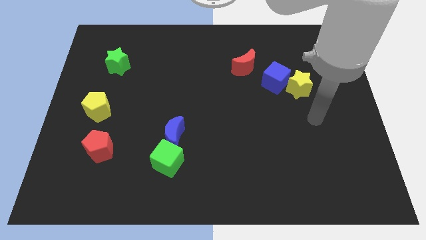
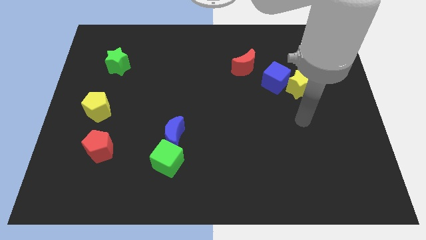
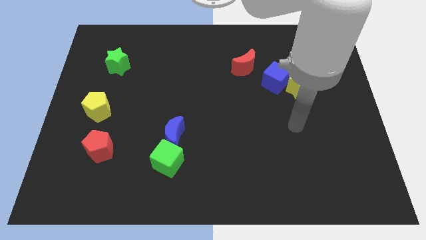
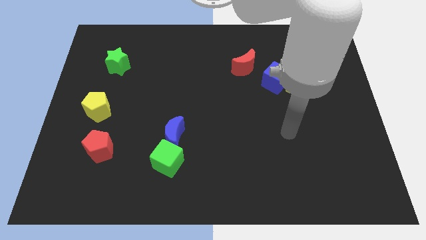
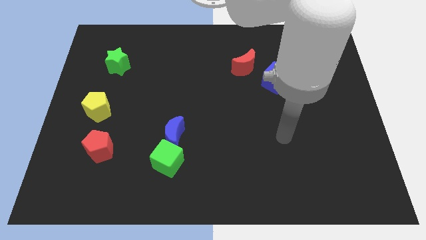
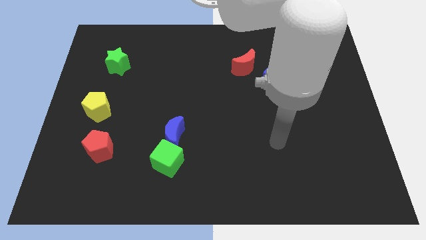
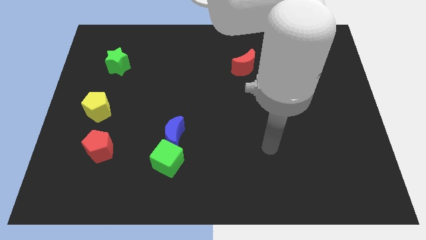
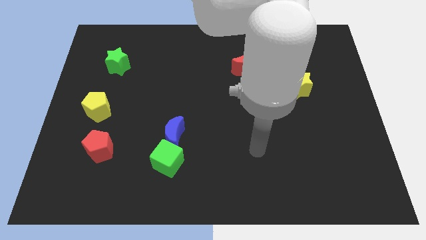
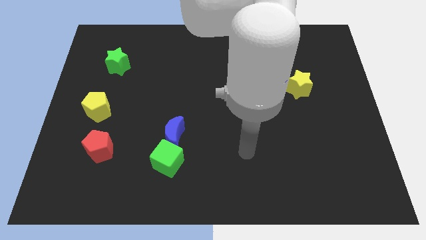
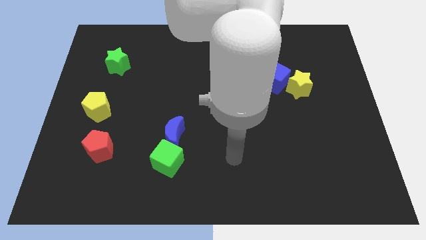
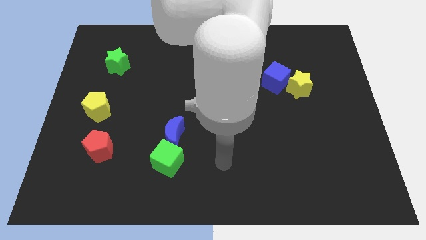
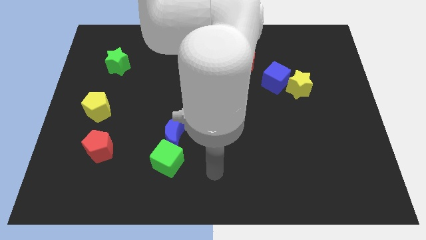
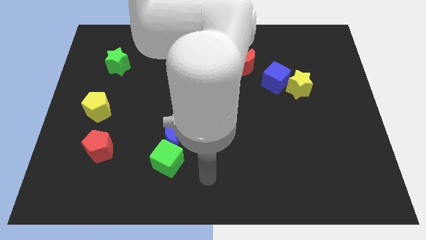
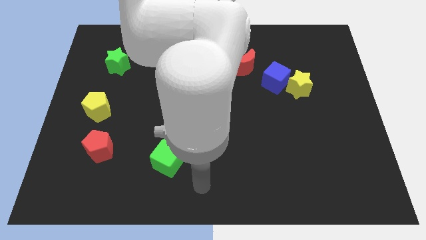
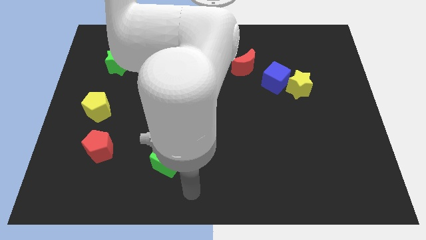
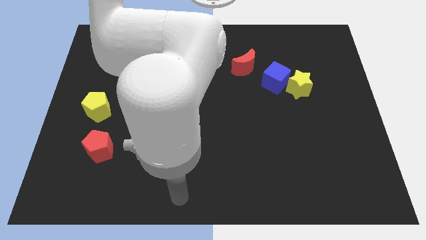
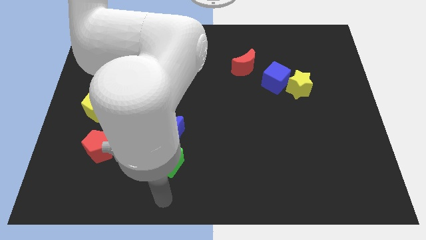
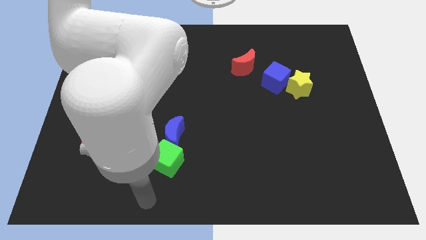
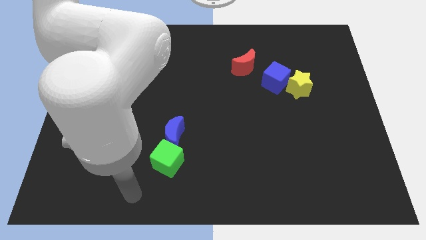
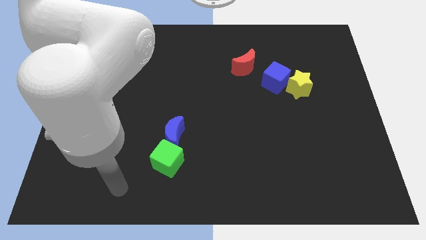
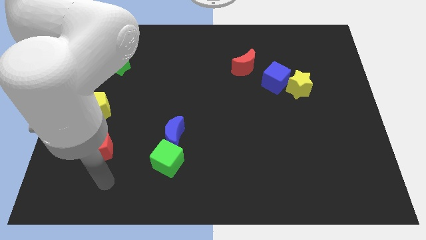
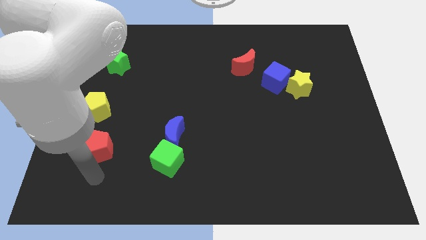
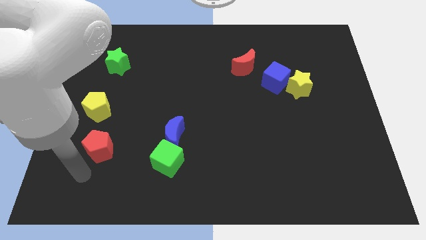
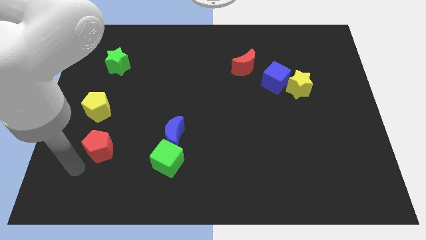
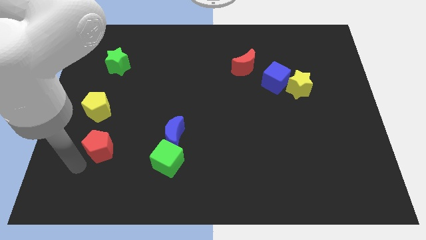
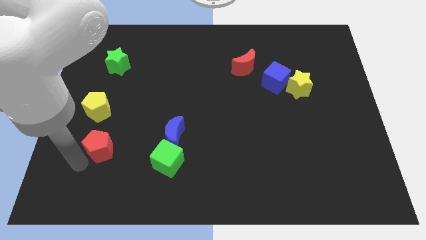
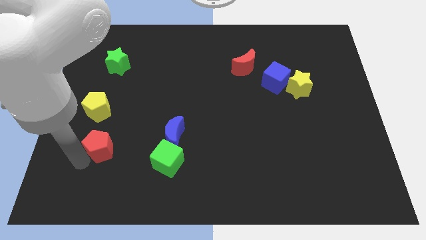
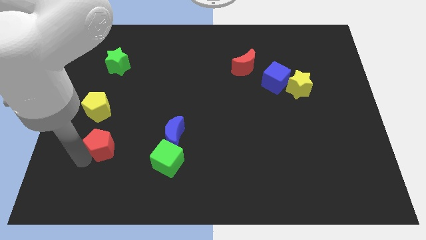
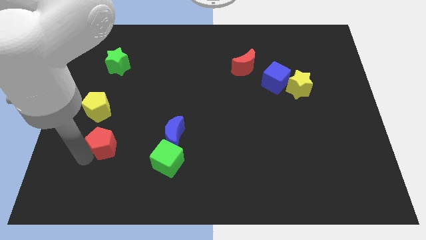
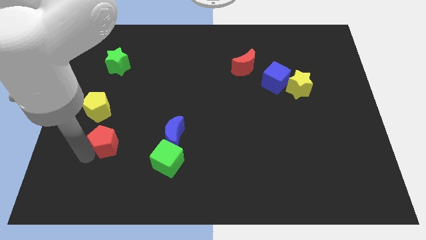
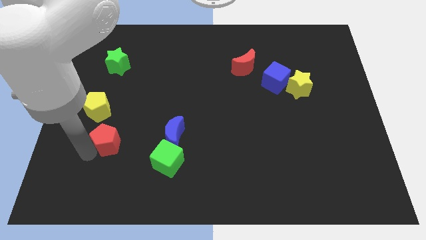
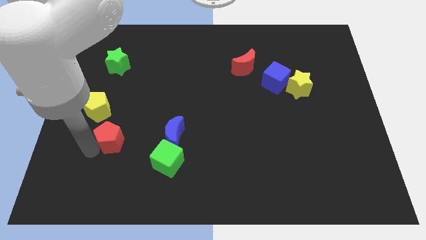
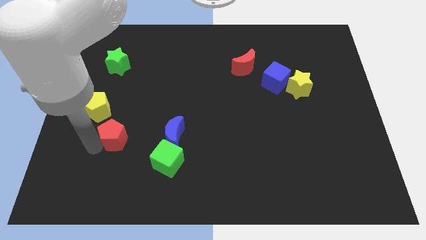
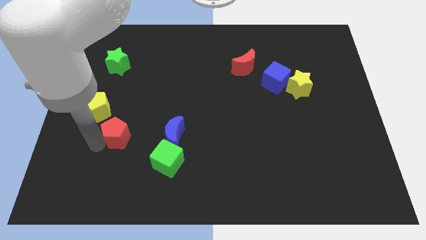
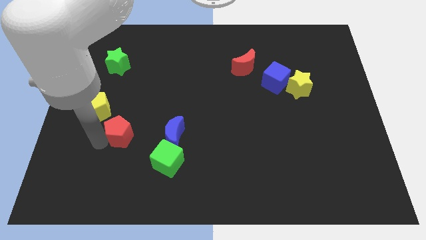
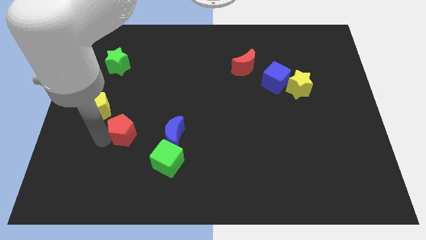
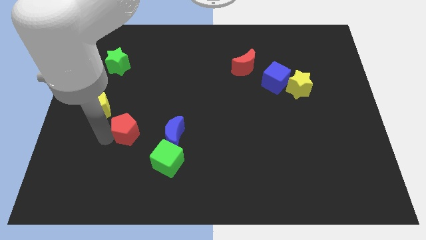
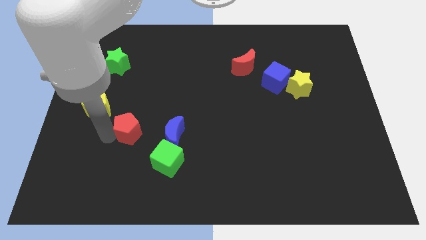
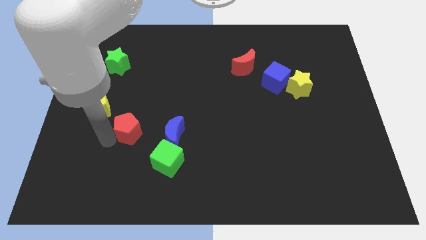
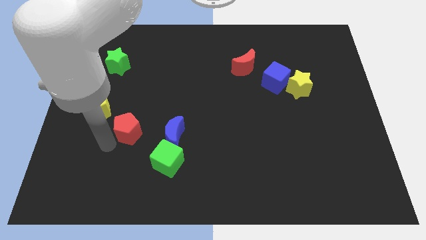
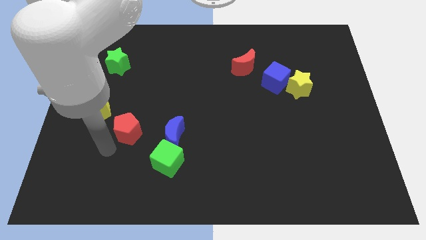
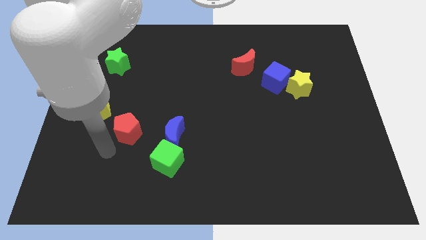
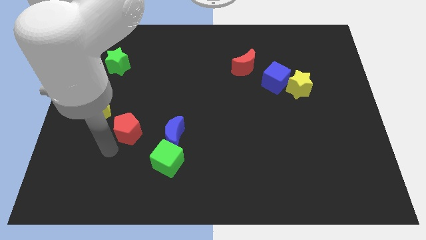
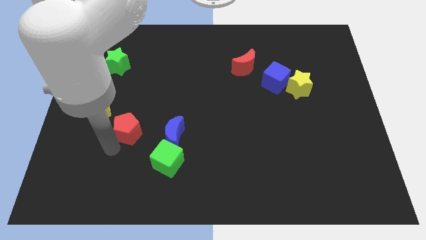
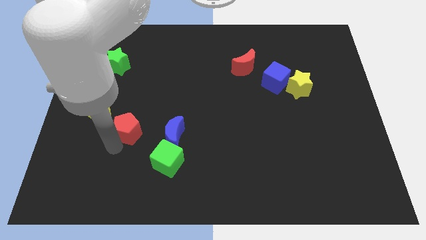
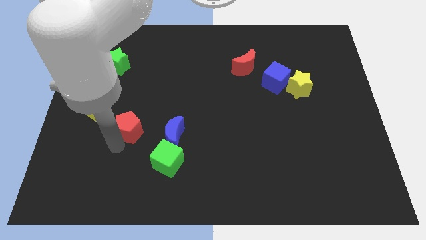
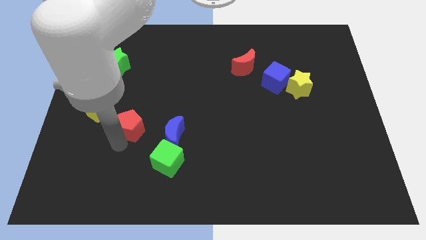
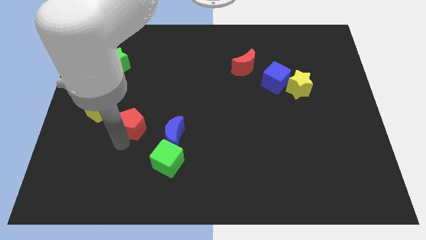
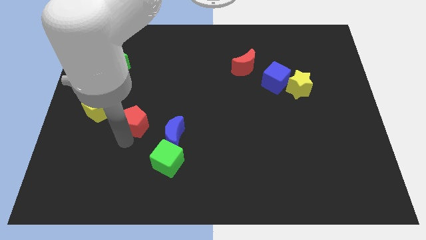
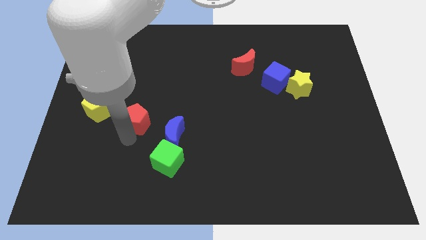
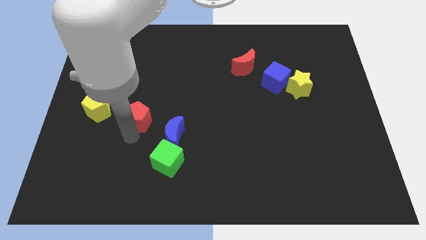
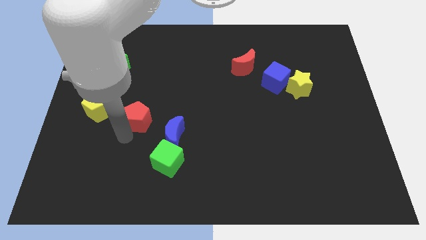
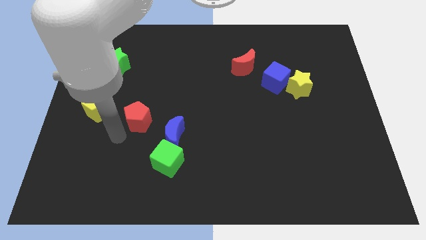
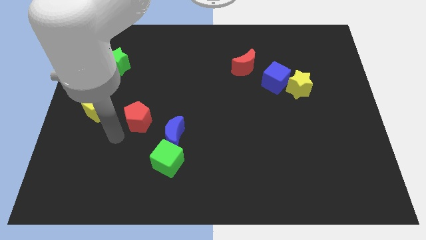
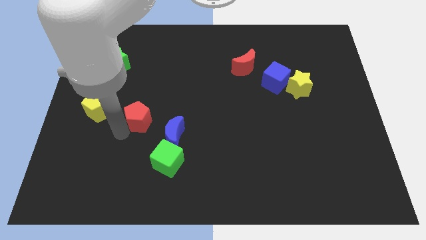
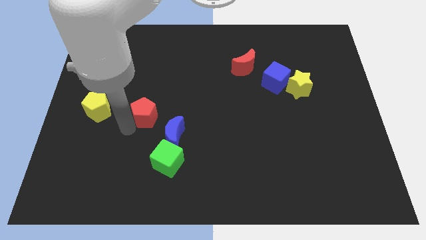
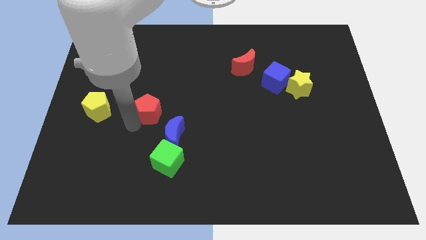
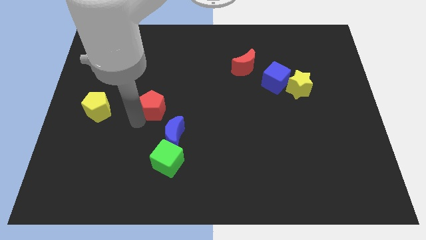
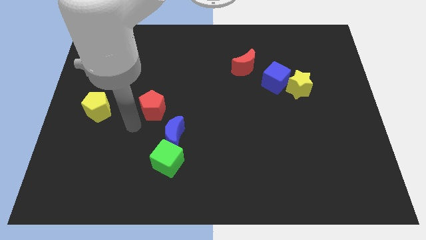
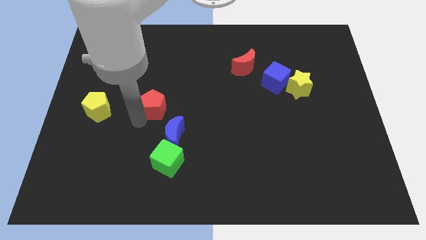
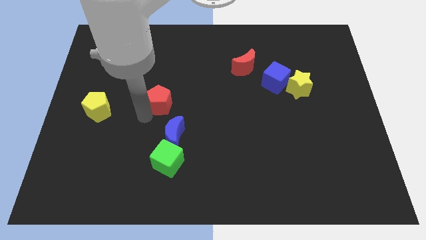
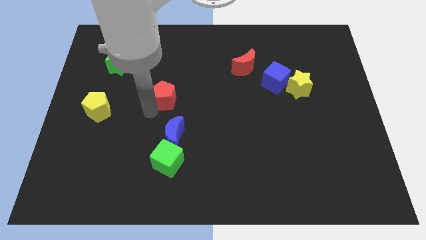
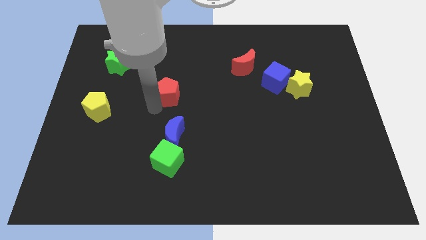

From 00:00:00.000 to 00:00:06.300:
push the red pentagon diagonally upwards and right

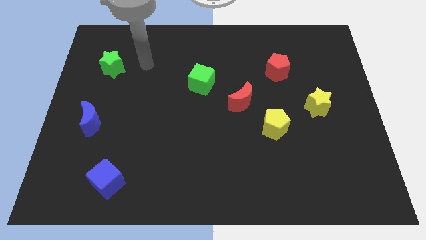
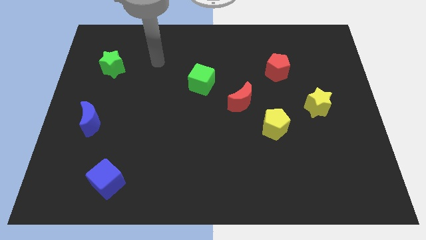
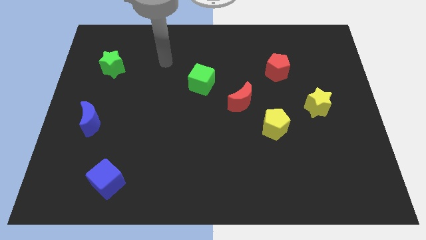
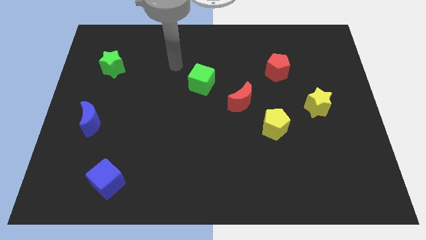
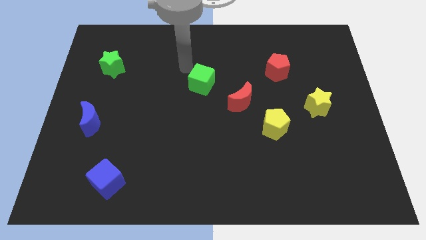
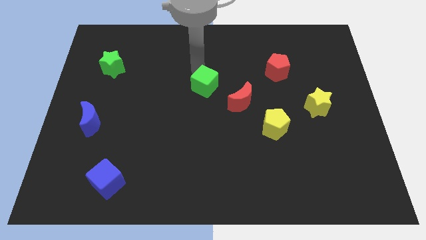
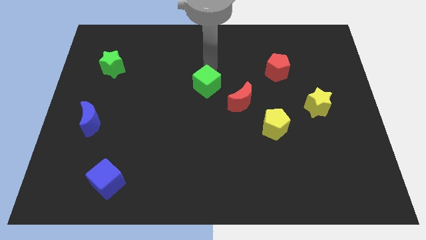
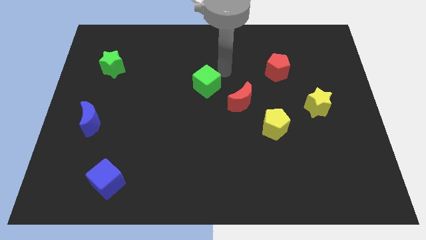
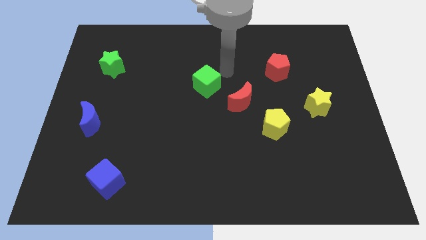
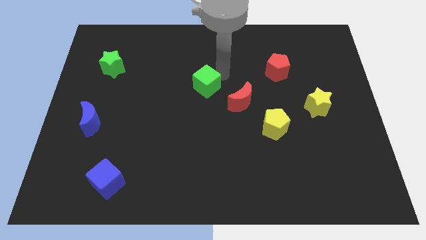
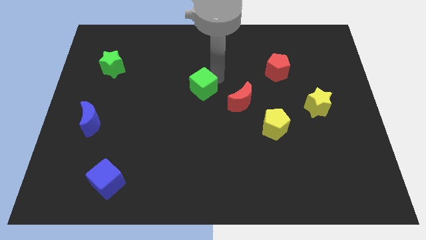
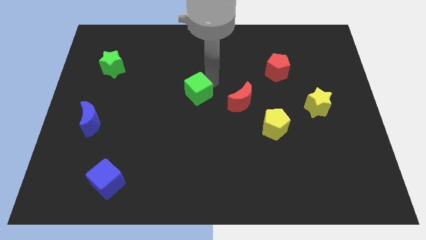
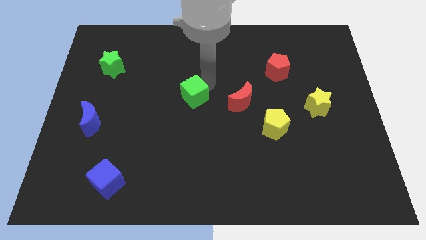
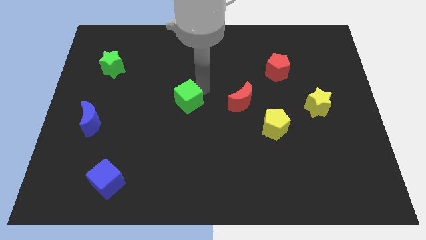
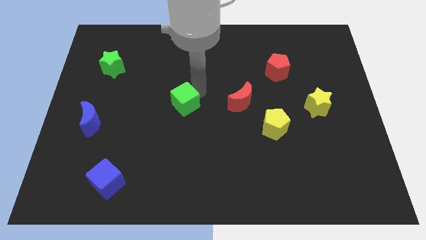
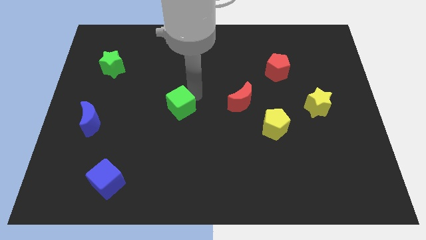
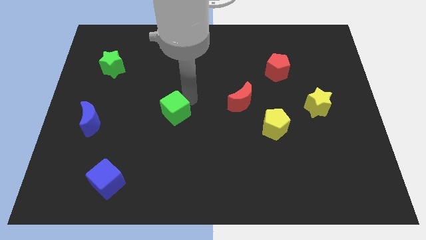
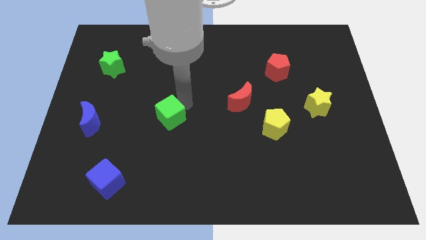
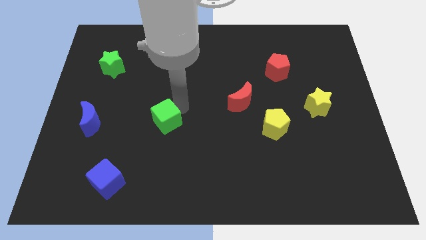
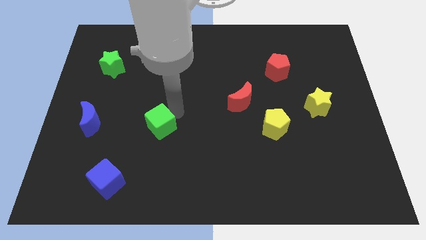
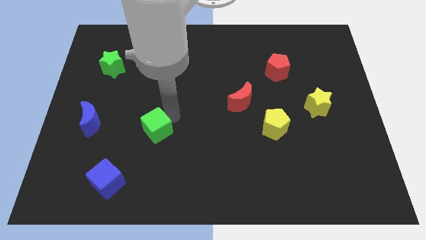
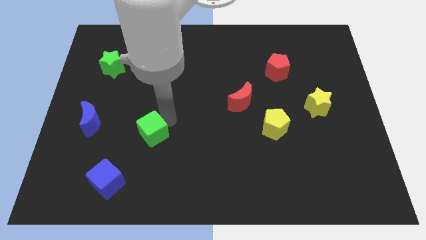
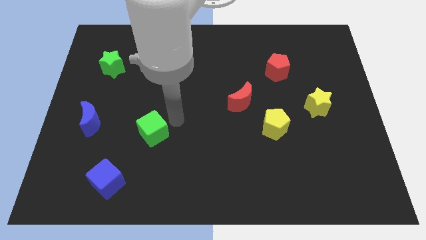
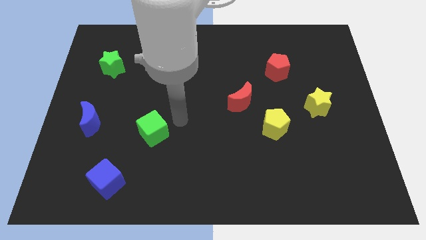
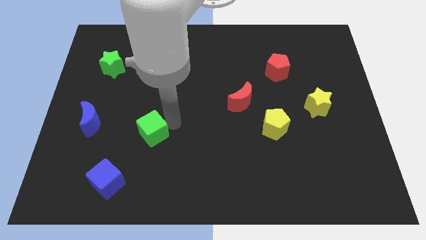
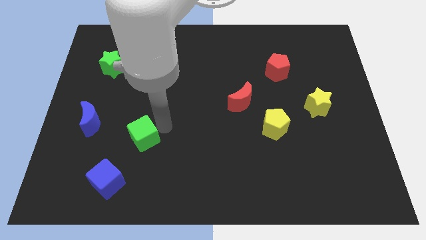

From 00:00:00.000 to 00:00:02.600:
move the green cube down and then to the left
